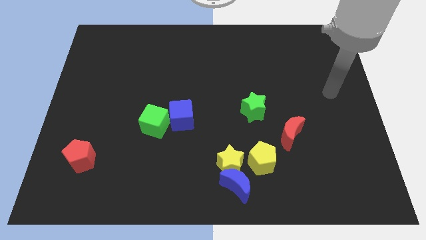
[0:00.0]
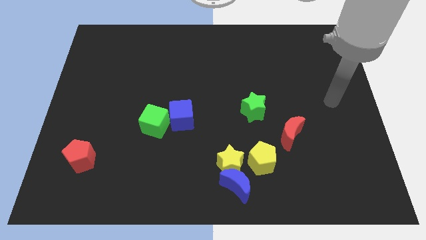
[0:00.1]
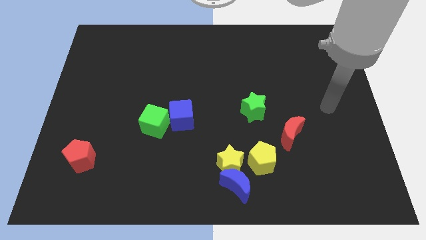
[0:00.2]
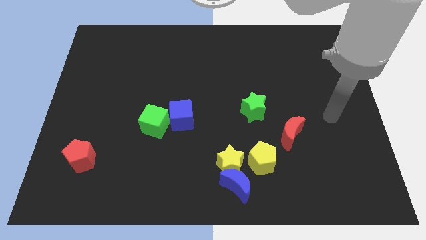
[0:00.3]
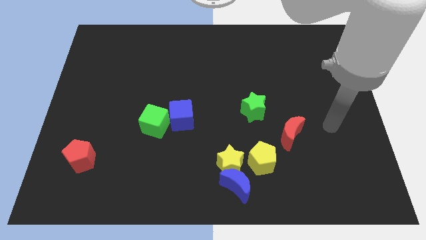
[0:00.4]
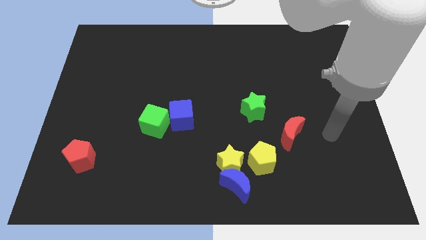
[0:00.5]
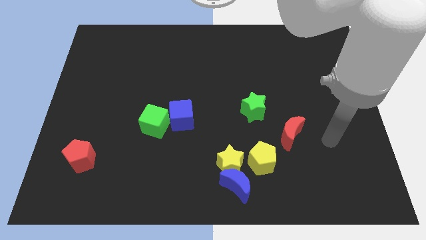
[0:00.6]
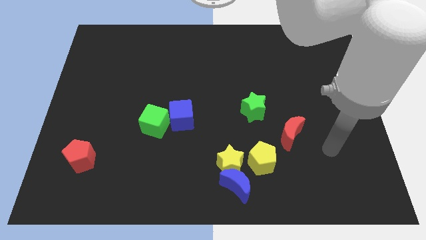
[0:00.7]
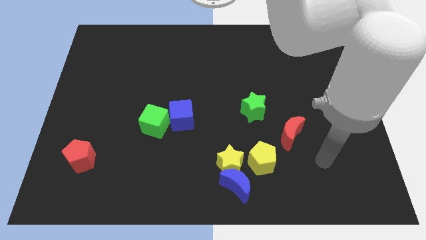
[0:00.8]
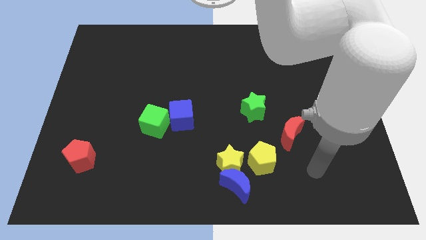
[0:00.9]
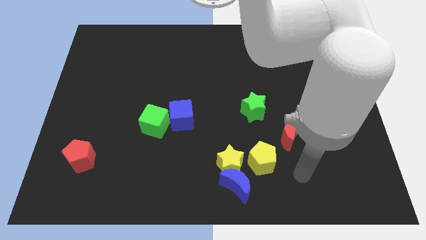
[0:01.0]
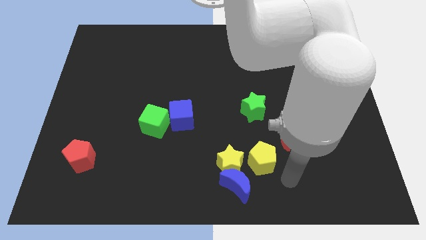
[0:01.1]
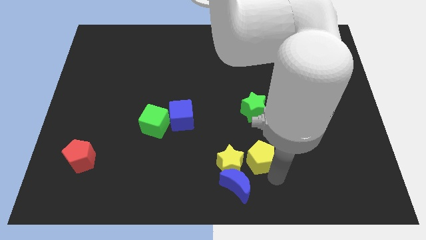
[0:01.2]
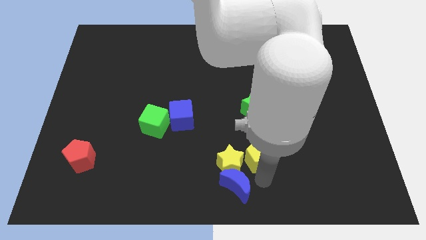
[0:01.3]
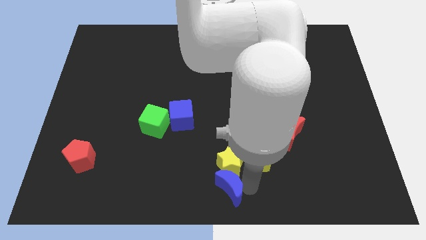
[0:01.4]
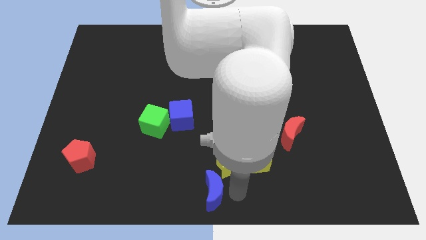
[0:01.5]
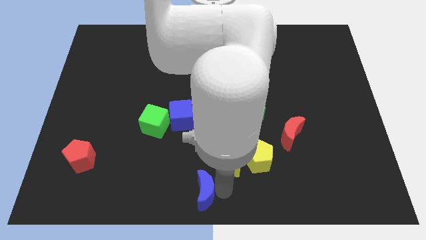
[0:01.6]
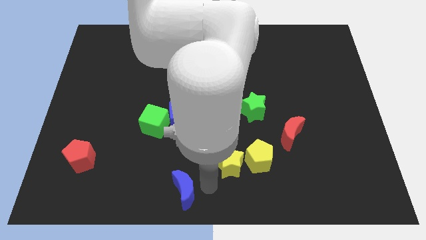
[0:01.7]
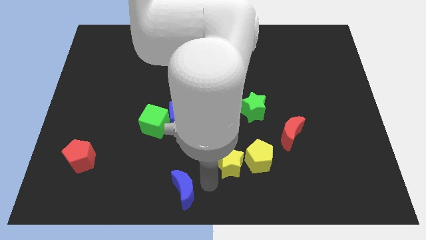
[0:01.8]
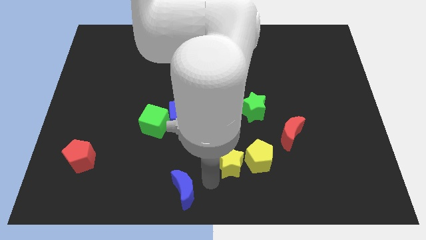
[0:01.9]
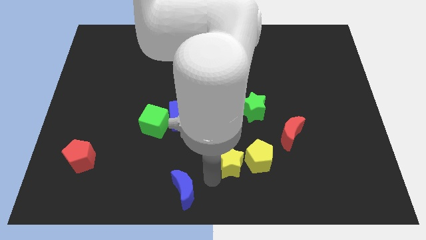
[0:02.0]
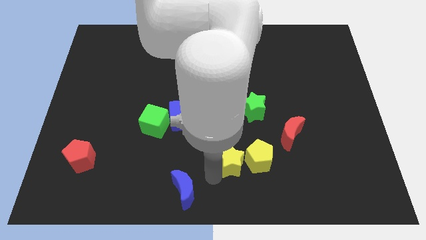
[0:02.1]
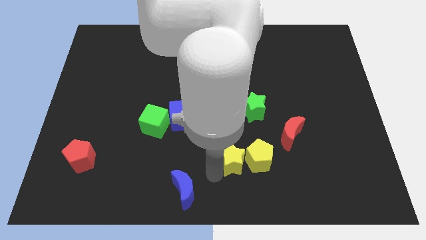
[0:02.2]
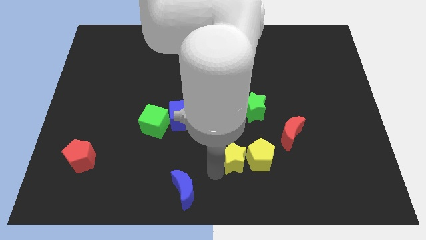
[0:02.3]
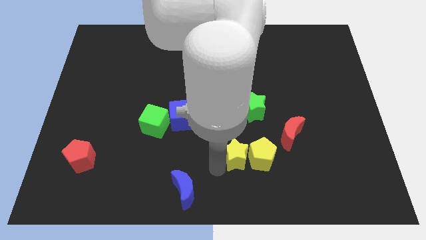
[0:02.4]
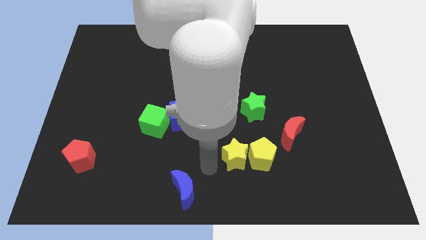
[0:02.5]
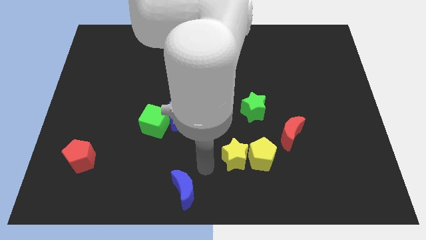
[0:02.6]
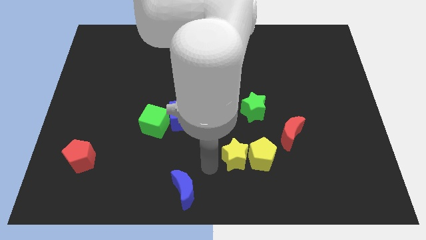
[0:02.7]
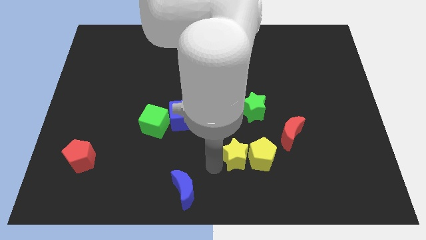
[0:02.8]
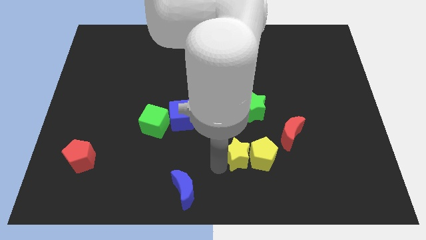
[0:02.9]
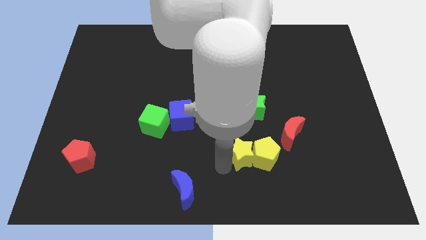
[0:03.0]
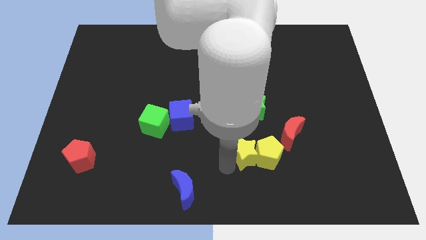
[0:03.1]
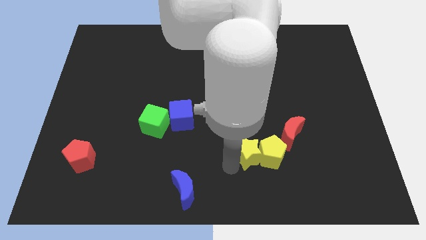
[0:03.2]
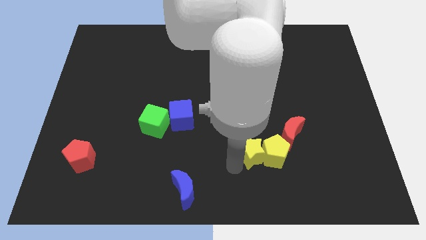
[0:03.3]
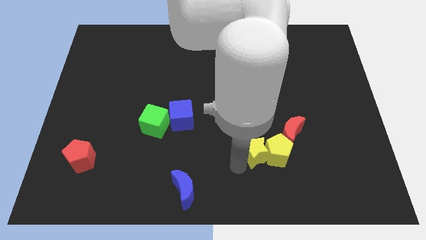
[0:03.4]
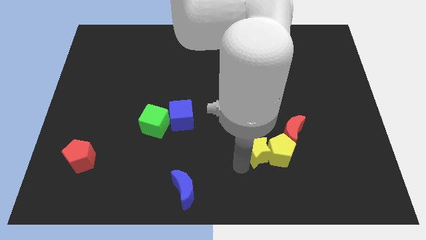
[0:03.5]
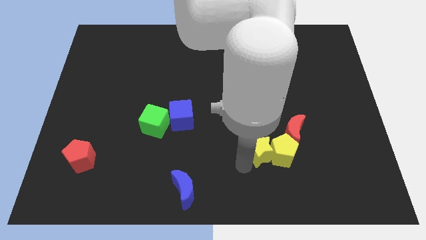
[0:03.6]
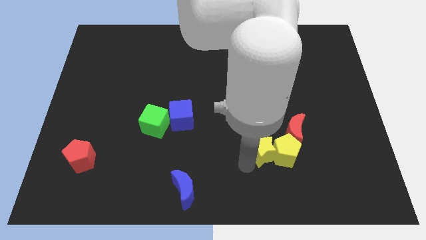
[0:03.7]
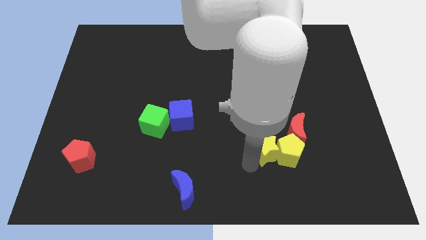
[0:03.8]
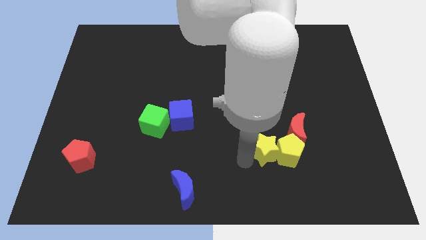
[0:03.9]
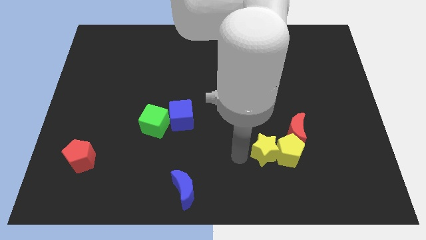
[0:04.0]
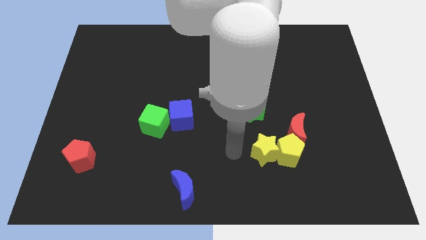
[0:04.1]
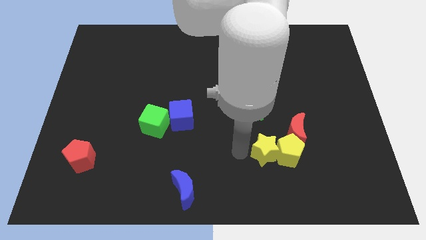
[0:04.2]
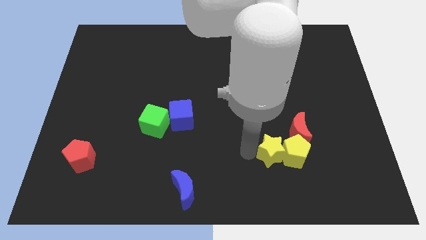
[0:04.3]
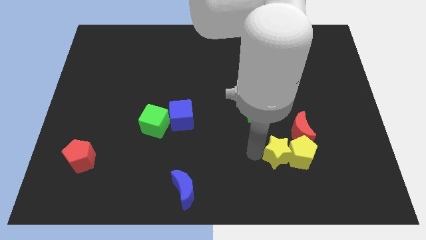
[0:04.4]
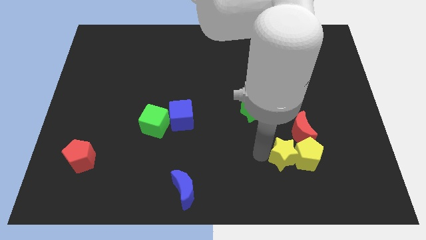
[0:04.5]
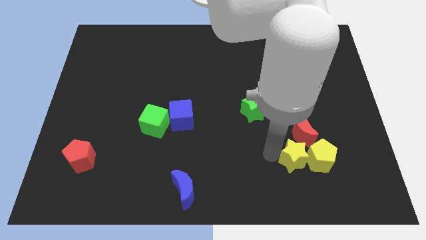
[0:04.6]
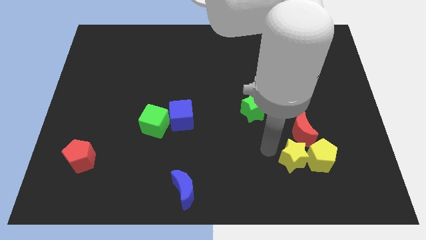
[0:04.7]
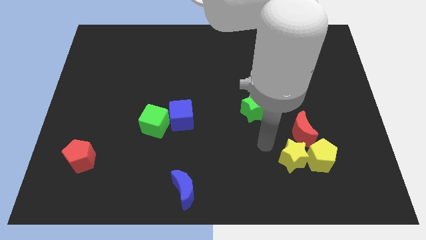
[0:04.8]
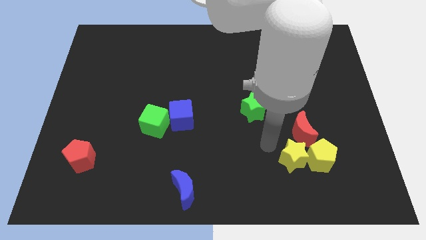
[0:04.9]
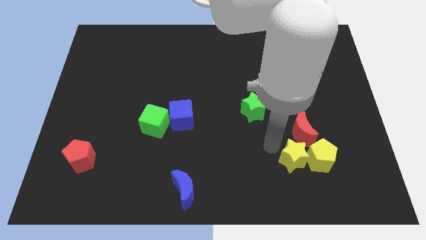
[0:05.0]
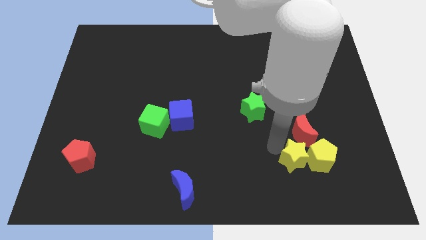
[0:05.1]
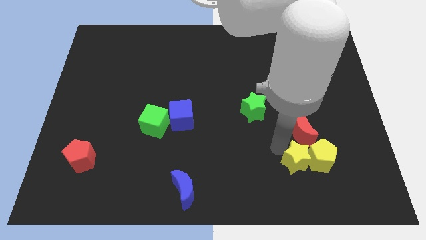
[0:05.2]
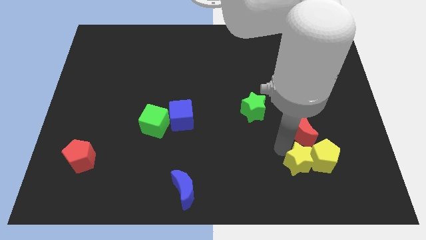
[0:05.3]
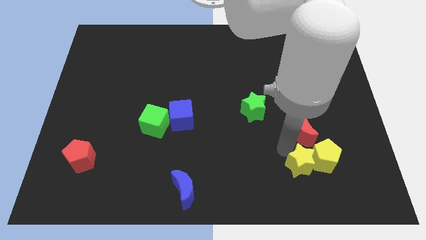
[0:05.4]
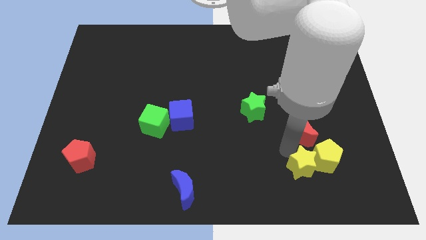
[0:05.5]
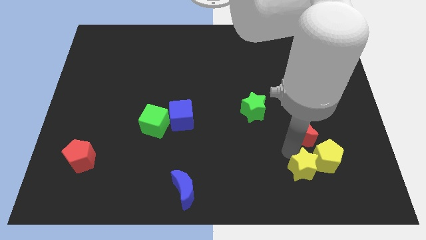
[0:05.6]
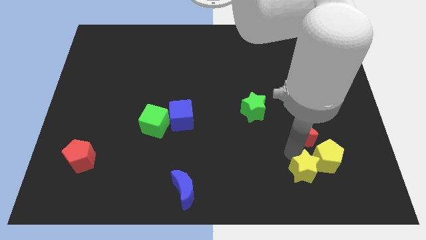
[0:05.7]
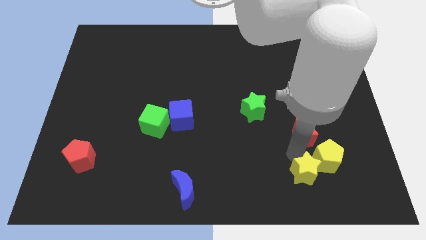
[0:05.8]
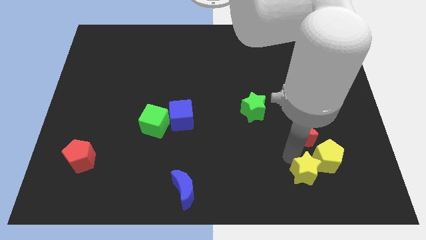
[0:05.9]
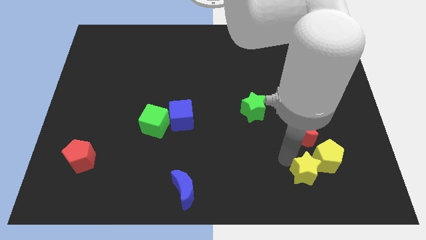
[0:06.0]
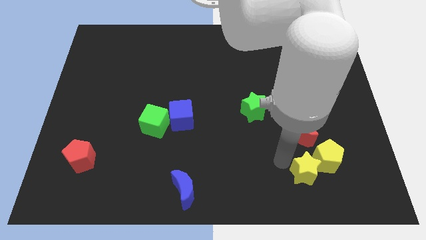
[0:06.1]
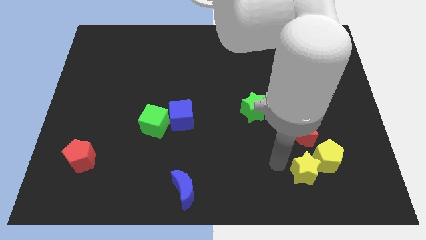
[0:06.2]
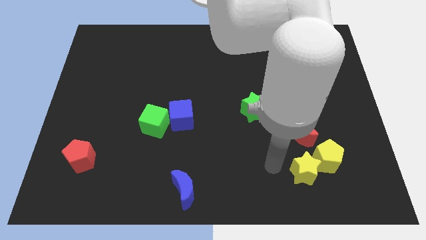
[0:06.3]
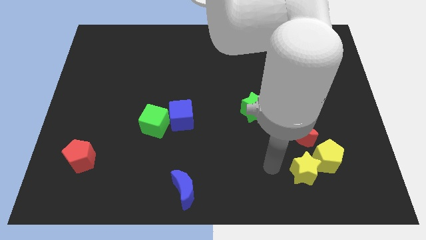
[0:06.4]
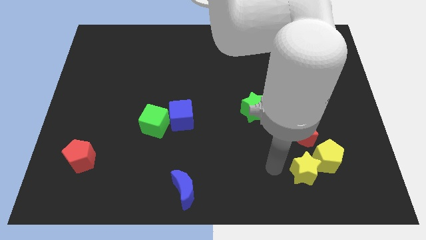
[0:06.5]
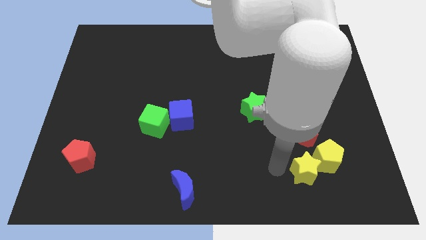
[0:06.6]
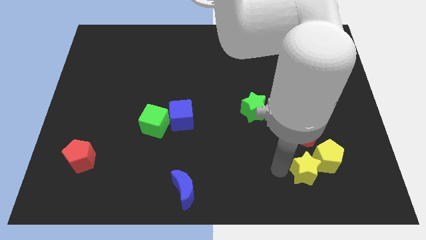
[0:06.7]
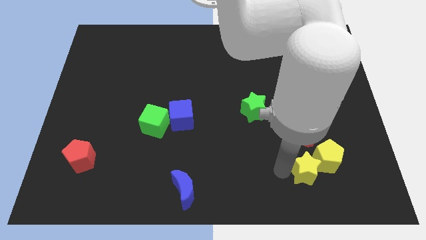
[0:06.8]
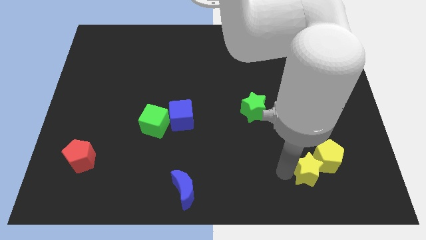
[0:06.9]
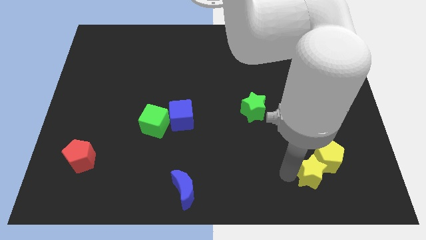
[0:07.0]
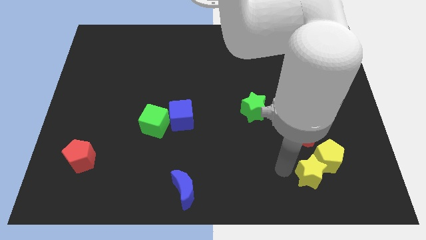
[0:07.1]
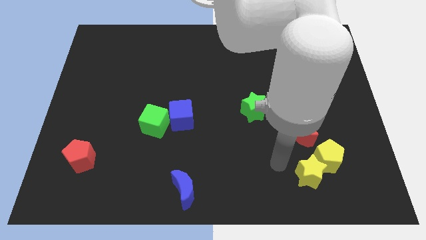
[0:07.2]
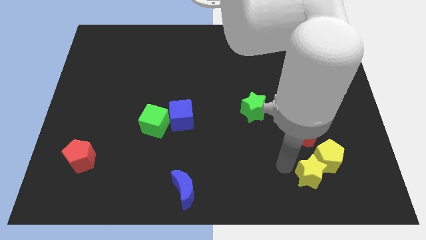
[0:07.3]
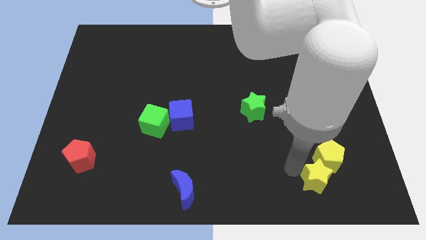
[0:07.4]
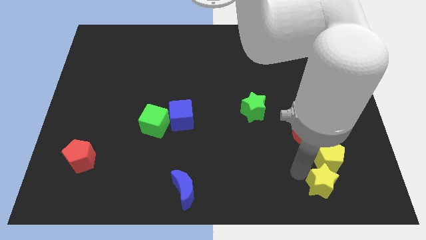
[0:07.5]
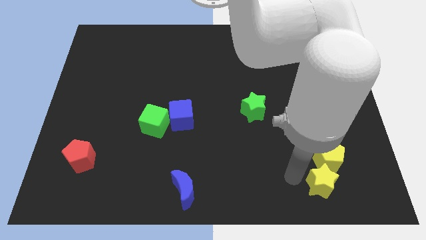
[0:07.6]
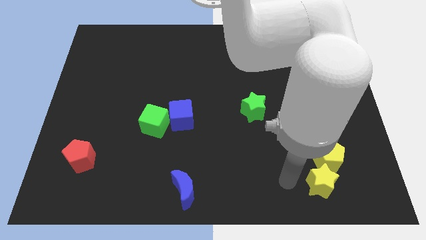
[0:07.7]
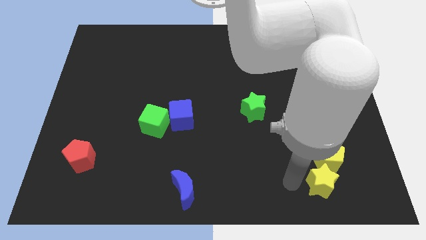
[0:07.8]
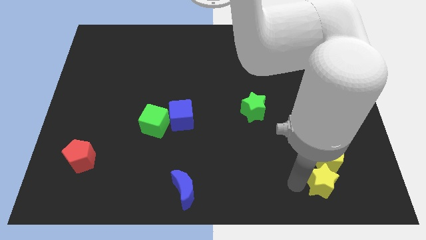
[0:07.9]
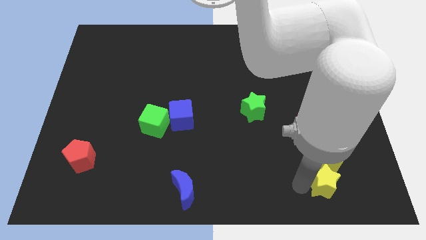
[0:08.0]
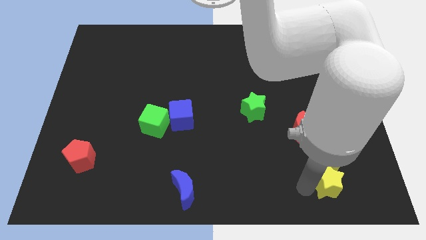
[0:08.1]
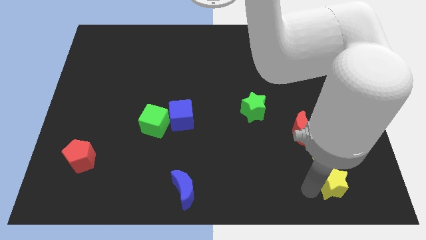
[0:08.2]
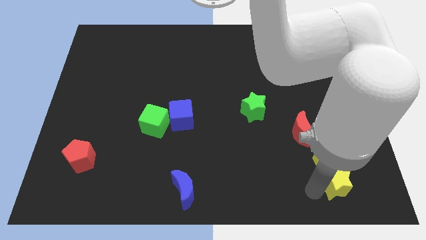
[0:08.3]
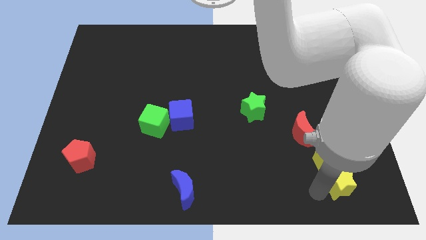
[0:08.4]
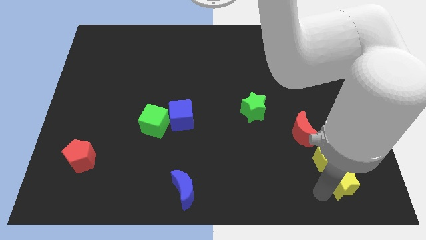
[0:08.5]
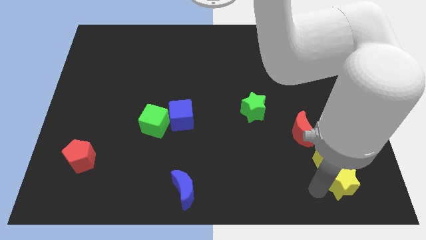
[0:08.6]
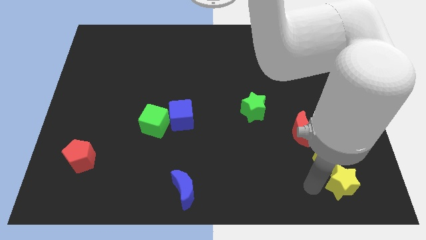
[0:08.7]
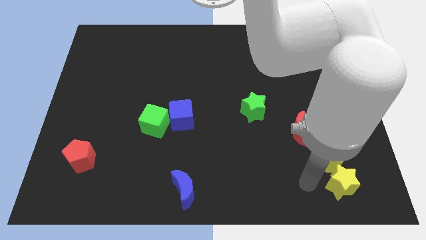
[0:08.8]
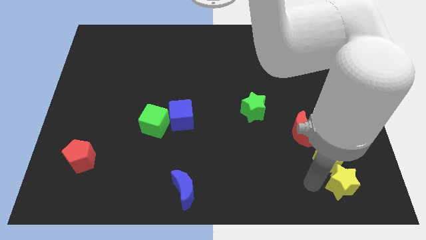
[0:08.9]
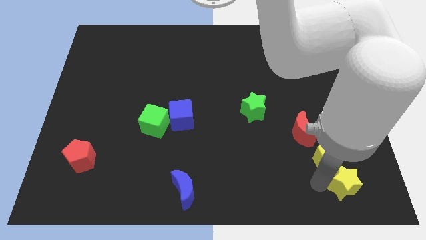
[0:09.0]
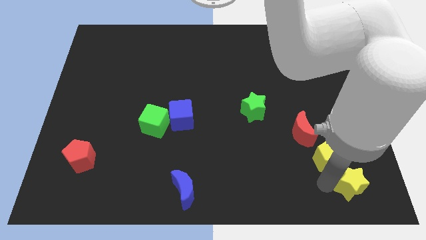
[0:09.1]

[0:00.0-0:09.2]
move the yellow star to the bottom right corner
